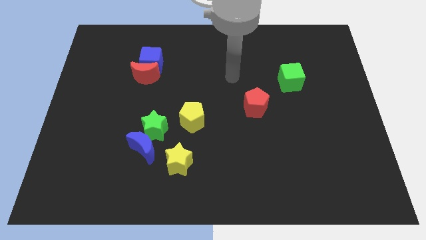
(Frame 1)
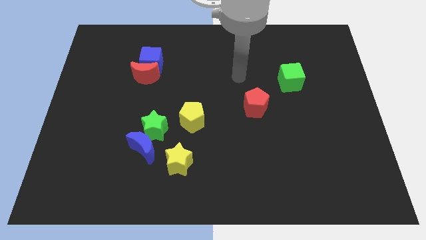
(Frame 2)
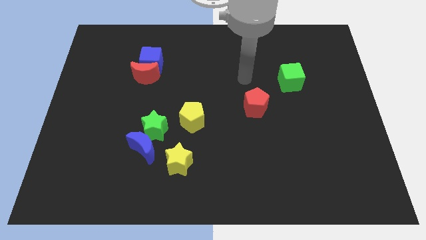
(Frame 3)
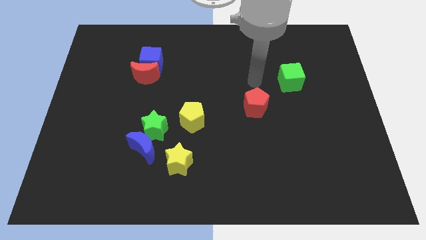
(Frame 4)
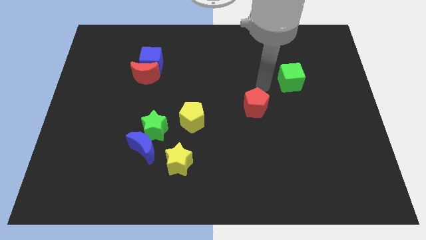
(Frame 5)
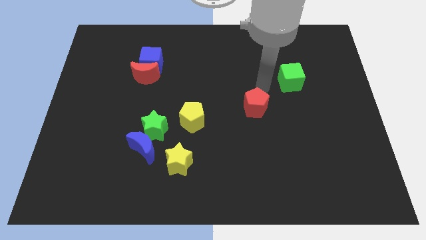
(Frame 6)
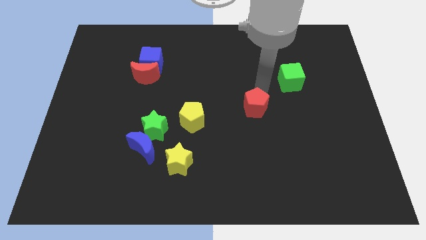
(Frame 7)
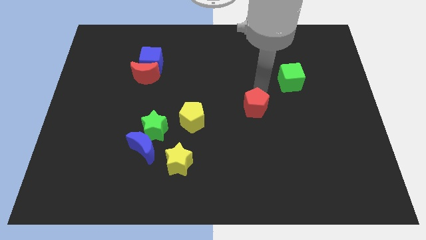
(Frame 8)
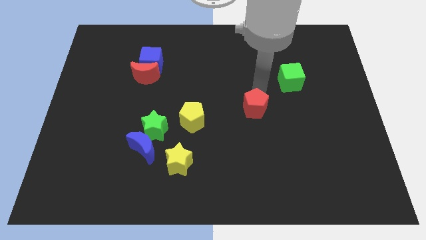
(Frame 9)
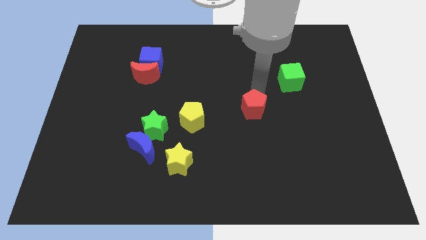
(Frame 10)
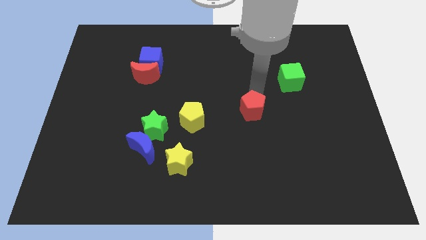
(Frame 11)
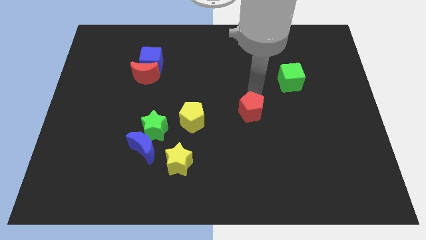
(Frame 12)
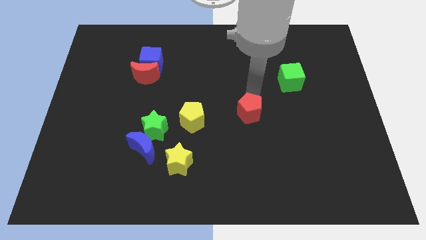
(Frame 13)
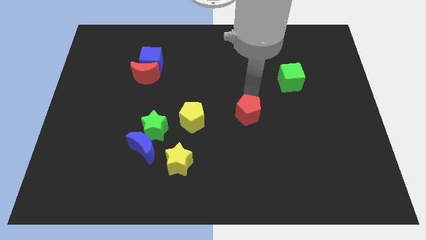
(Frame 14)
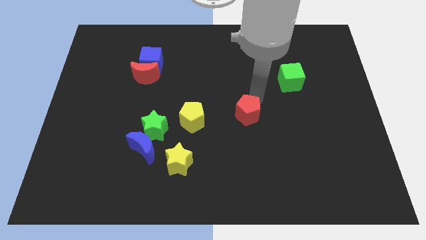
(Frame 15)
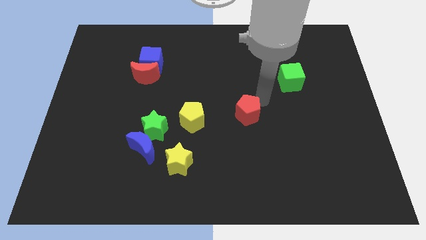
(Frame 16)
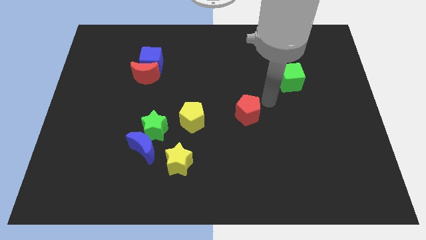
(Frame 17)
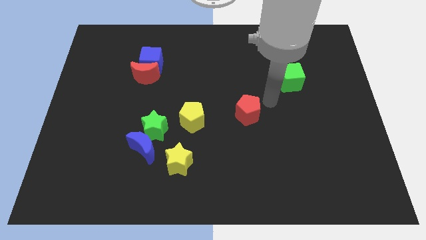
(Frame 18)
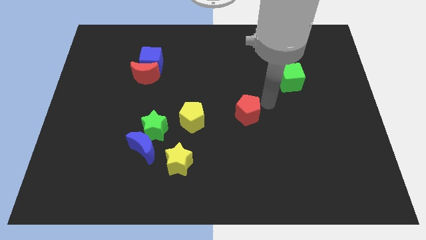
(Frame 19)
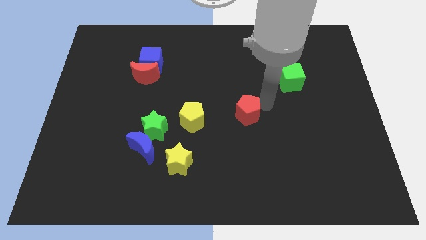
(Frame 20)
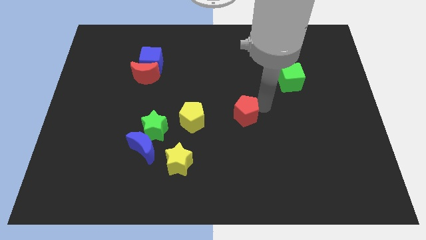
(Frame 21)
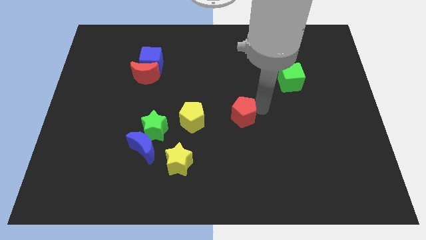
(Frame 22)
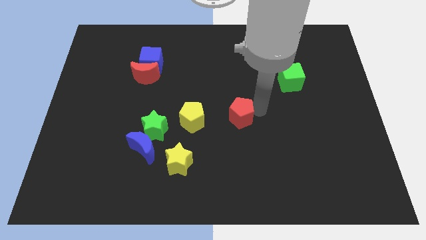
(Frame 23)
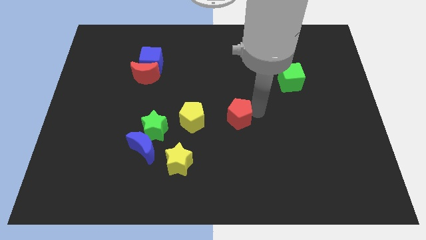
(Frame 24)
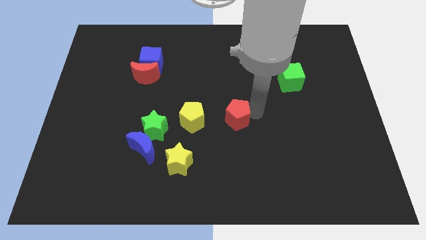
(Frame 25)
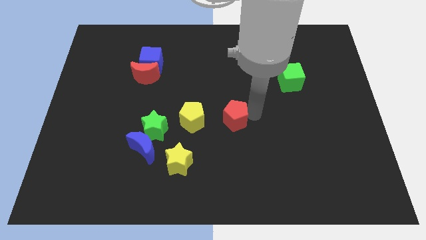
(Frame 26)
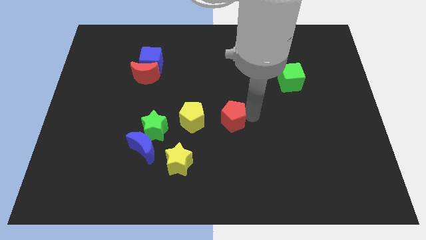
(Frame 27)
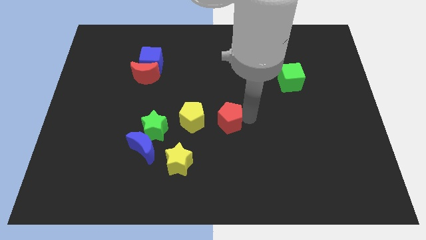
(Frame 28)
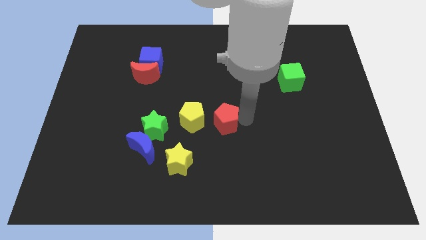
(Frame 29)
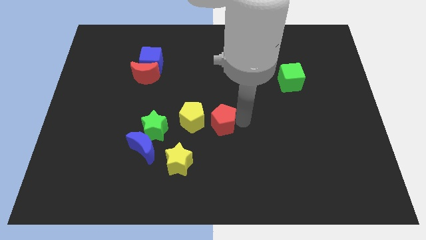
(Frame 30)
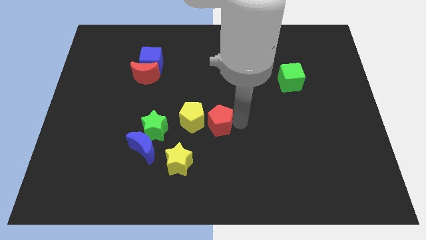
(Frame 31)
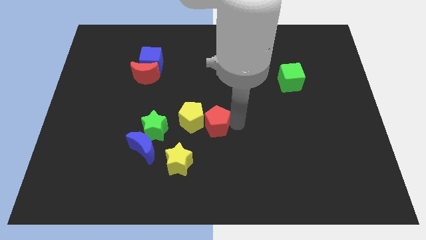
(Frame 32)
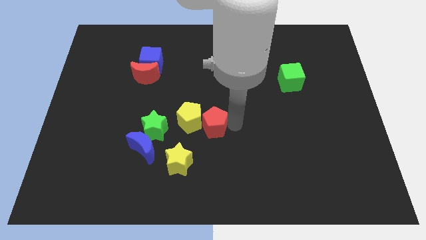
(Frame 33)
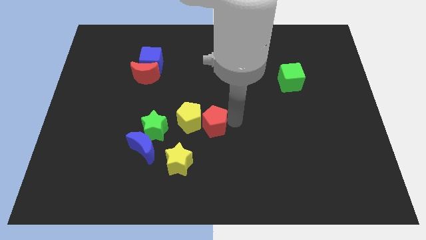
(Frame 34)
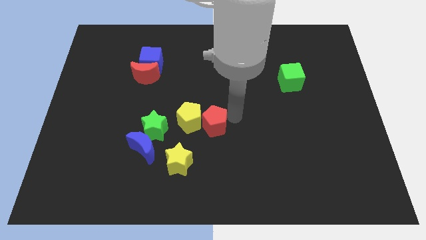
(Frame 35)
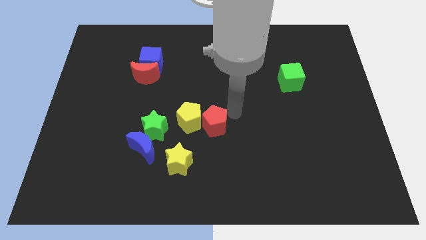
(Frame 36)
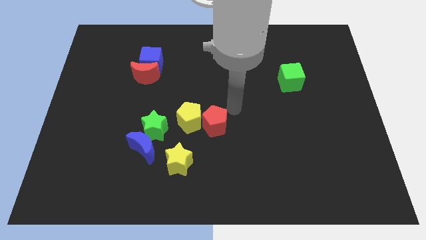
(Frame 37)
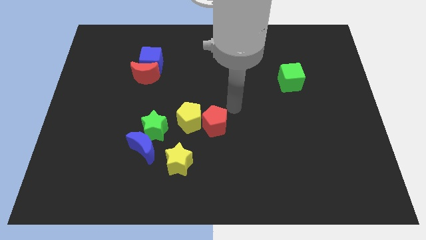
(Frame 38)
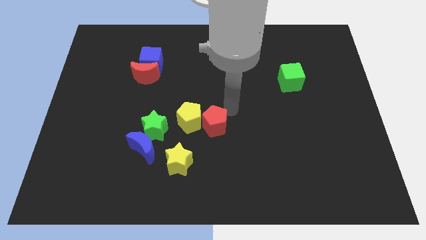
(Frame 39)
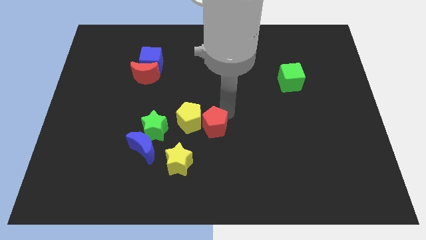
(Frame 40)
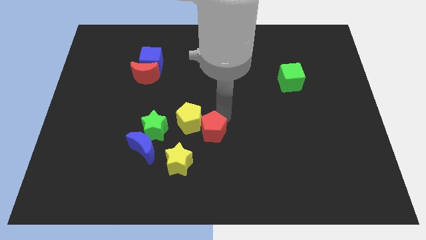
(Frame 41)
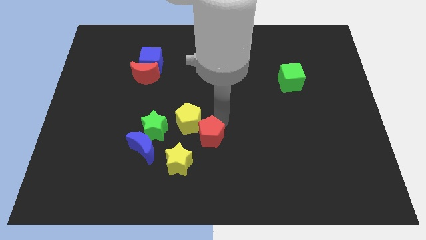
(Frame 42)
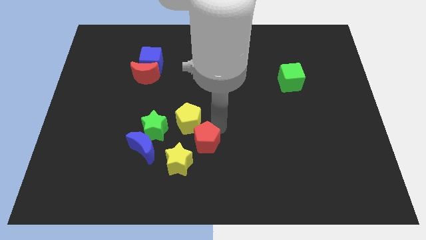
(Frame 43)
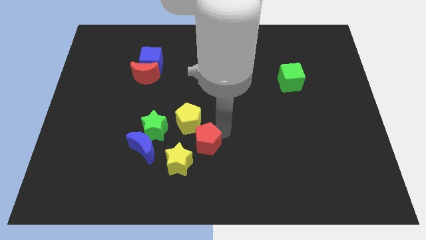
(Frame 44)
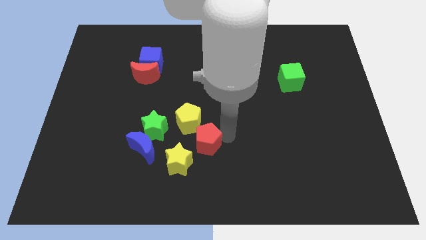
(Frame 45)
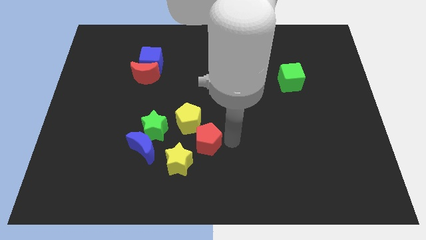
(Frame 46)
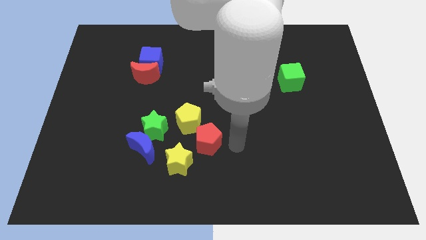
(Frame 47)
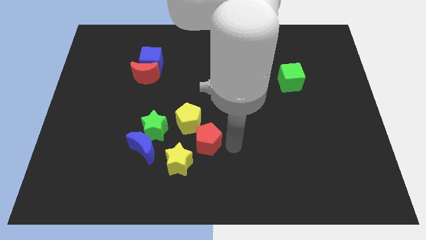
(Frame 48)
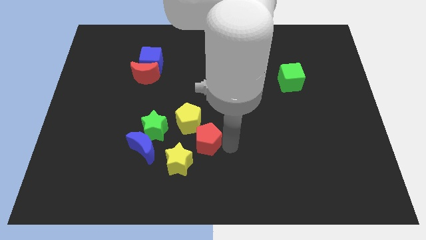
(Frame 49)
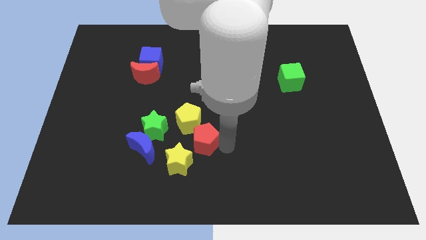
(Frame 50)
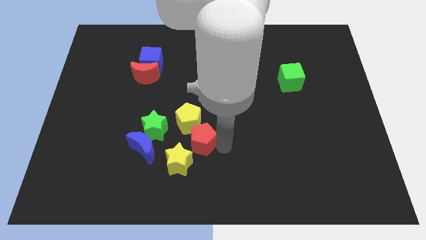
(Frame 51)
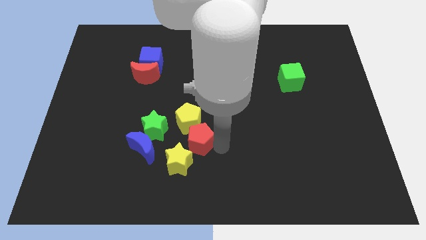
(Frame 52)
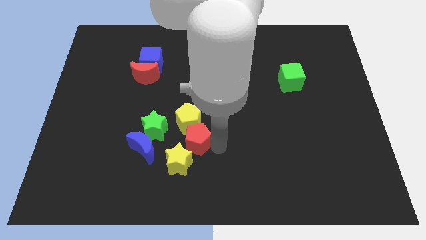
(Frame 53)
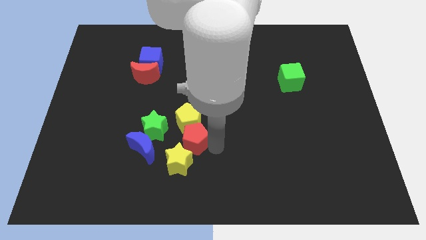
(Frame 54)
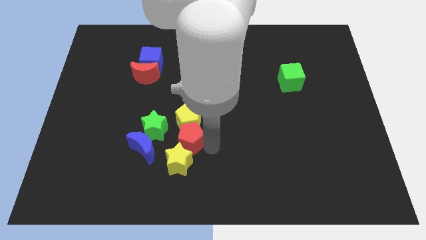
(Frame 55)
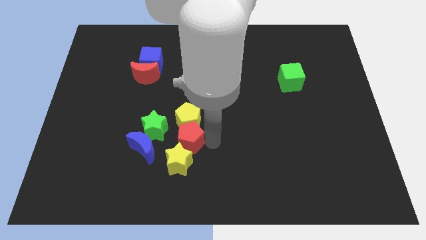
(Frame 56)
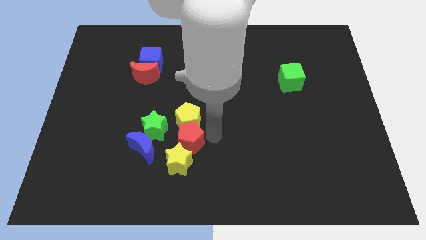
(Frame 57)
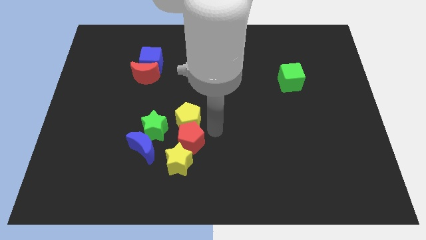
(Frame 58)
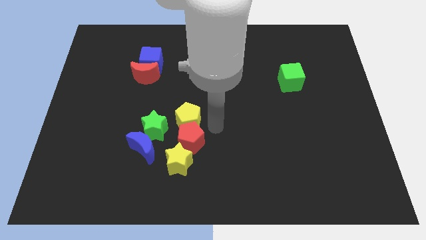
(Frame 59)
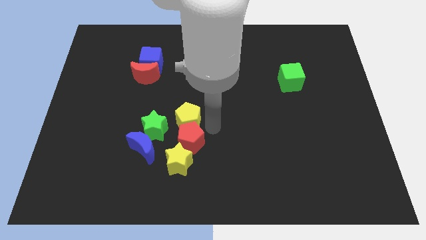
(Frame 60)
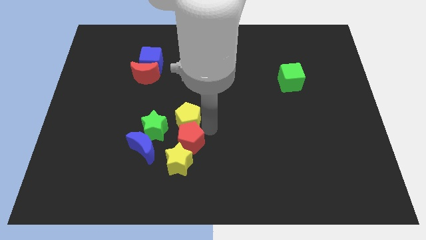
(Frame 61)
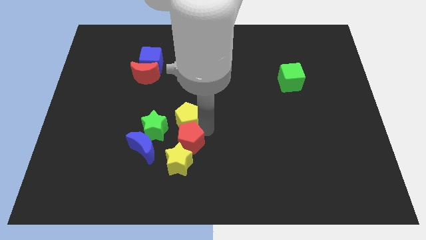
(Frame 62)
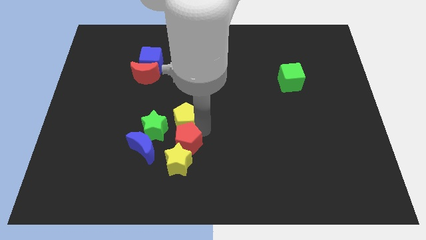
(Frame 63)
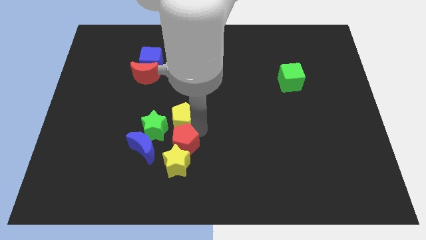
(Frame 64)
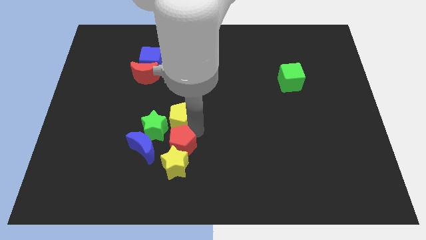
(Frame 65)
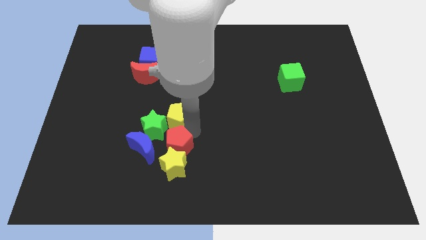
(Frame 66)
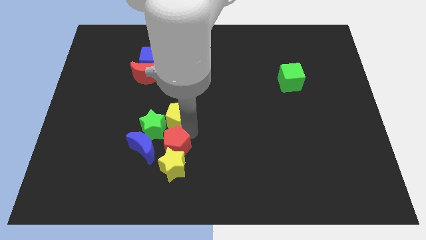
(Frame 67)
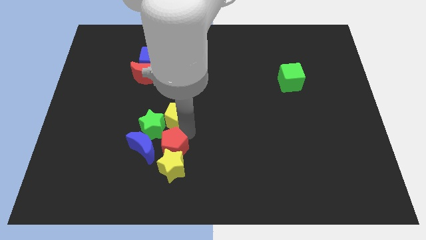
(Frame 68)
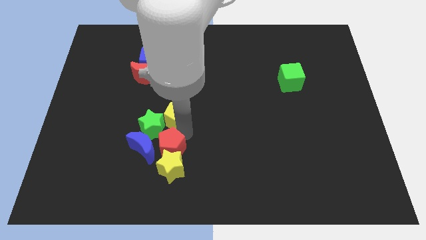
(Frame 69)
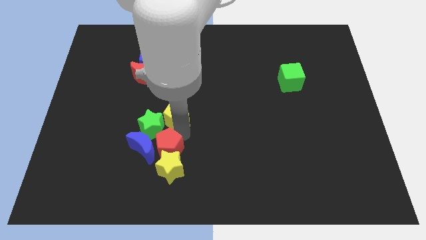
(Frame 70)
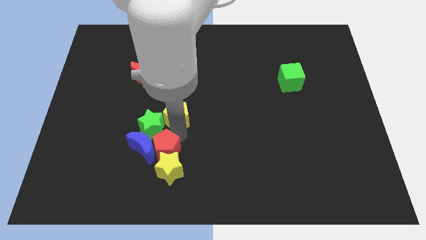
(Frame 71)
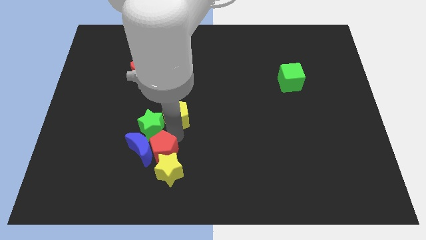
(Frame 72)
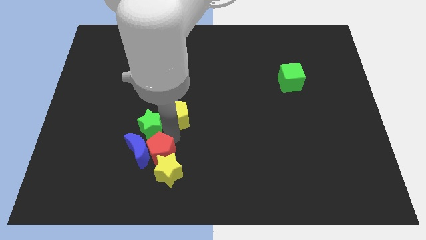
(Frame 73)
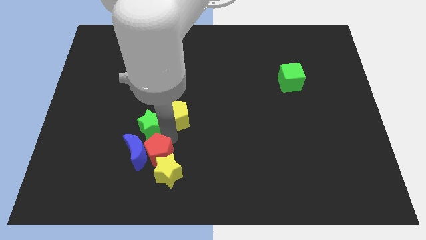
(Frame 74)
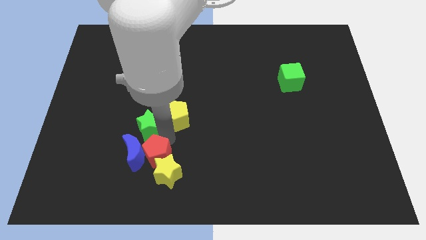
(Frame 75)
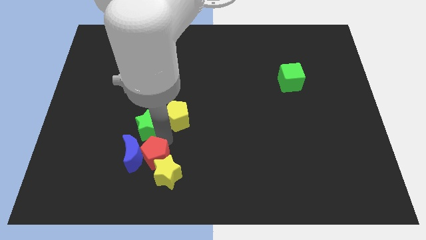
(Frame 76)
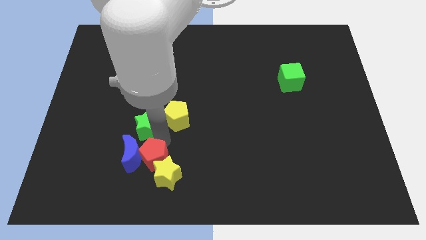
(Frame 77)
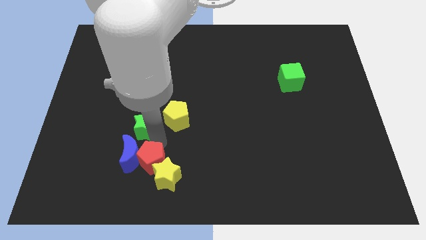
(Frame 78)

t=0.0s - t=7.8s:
slide the red pentagon just left of the yellow star
